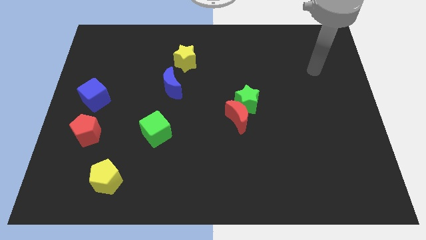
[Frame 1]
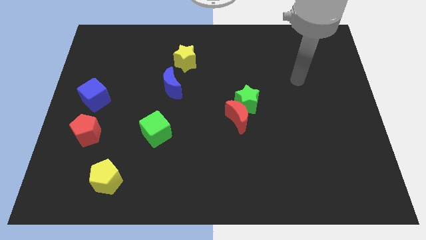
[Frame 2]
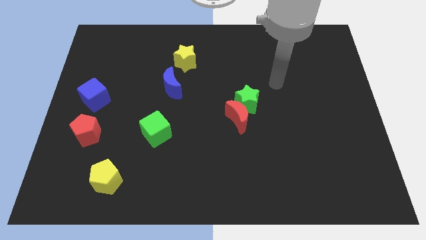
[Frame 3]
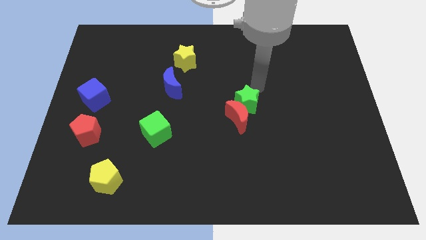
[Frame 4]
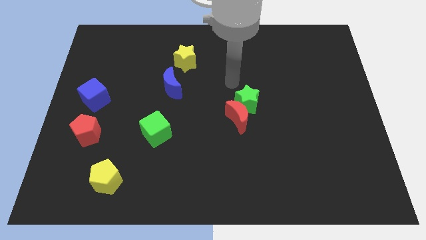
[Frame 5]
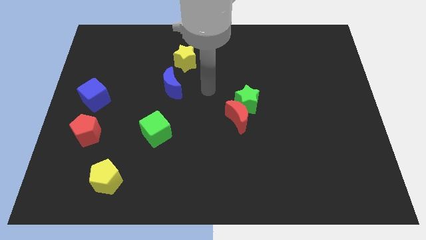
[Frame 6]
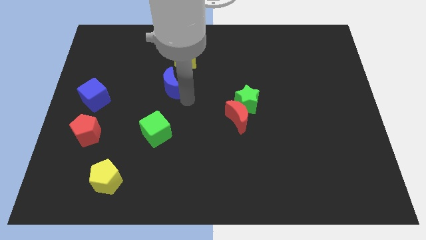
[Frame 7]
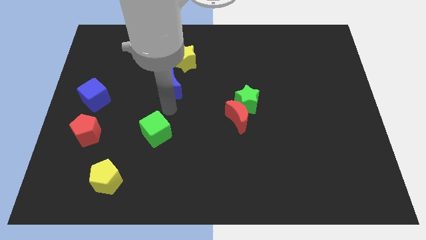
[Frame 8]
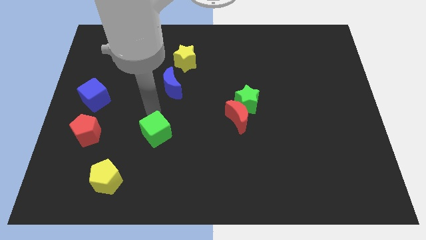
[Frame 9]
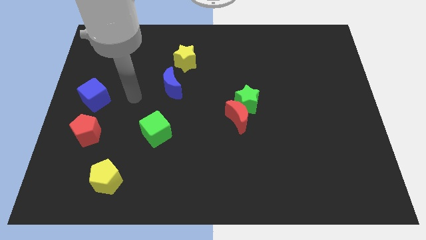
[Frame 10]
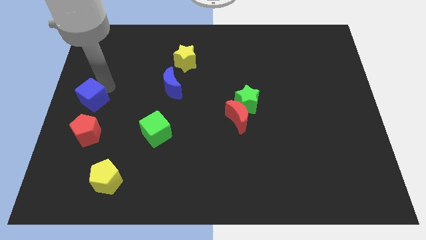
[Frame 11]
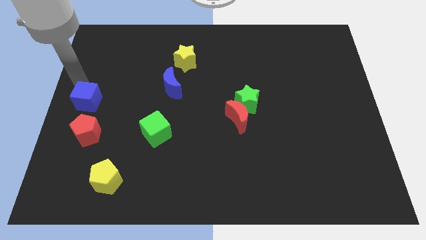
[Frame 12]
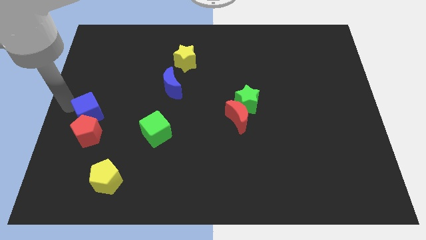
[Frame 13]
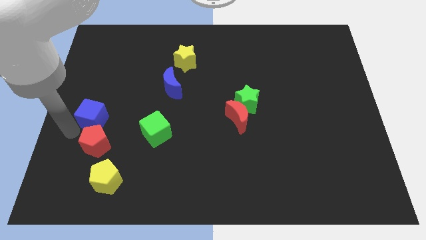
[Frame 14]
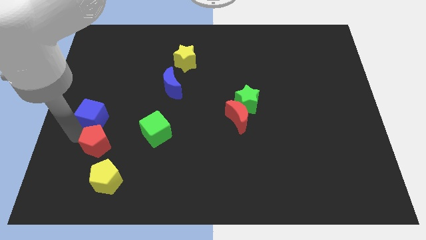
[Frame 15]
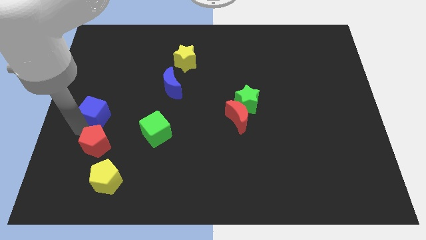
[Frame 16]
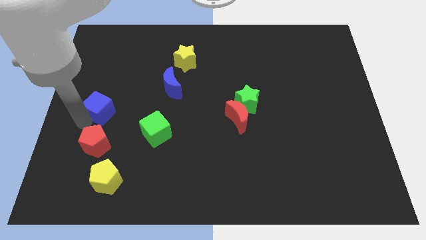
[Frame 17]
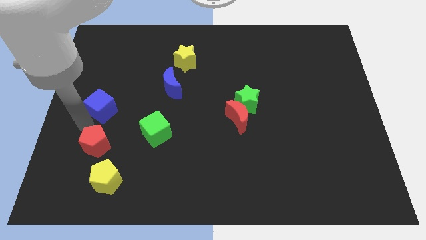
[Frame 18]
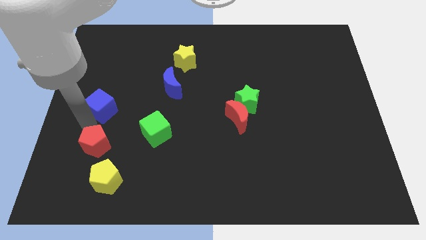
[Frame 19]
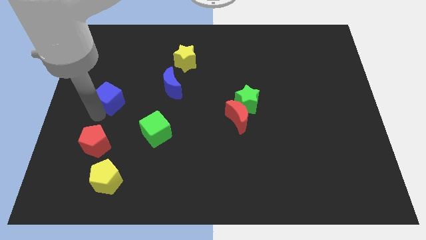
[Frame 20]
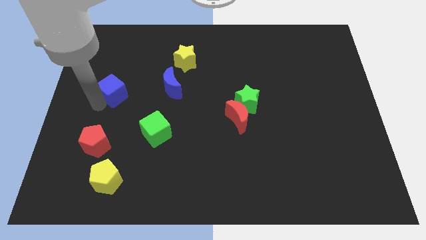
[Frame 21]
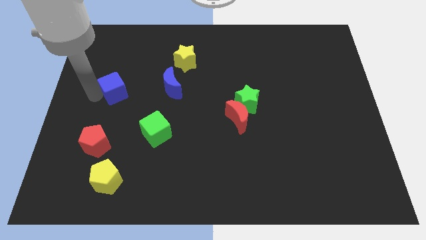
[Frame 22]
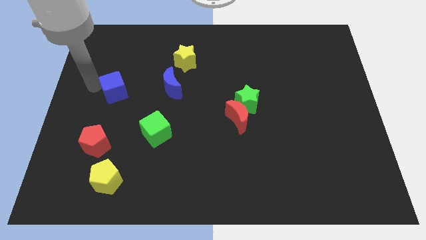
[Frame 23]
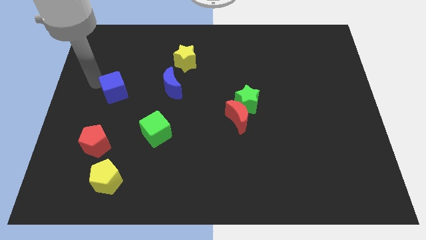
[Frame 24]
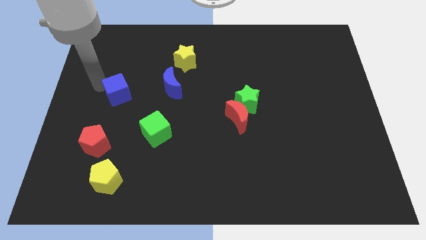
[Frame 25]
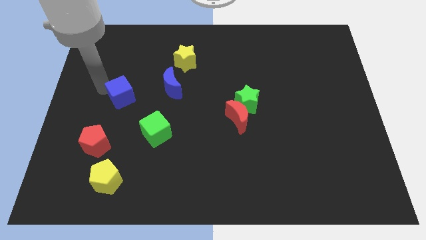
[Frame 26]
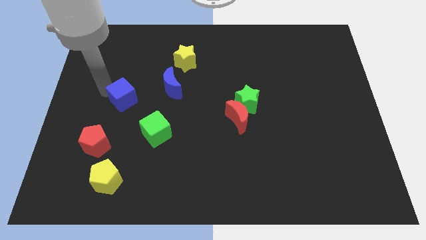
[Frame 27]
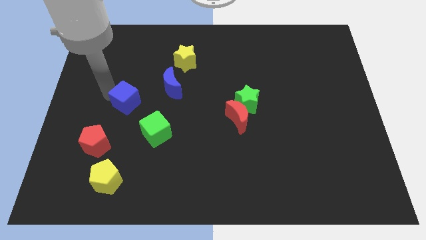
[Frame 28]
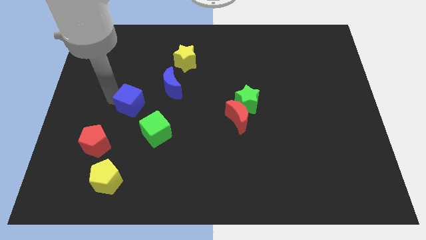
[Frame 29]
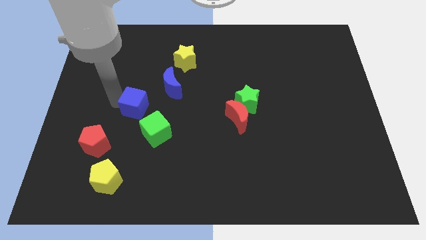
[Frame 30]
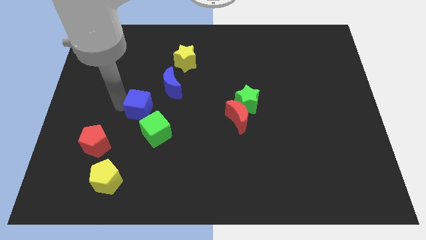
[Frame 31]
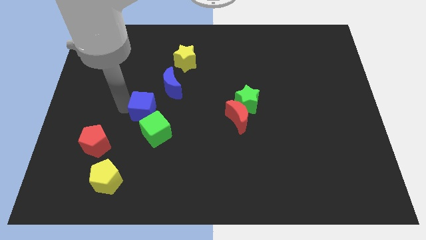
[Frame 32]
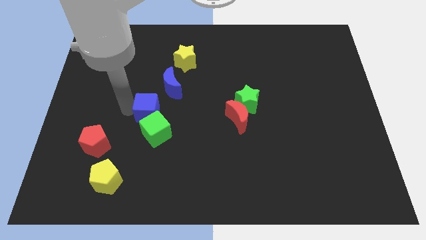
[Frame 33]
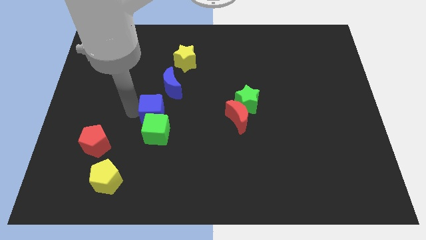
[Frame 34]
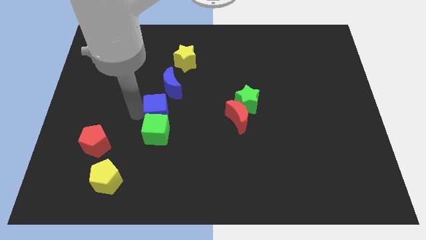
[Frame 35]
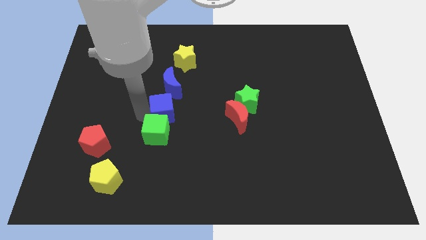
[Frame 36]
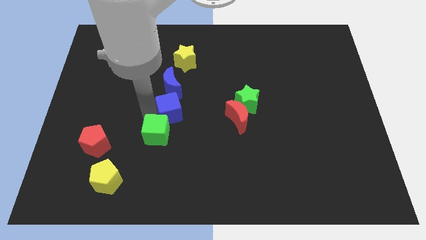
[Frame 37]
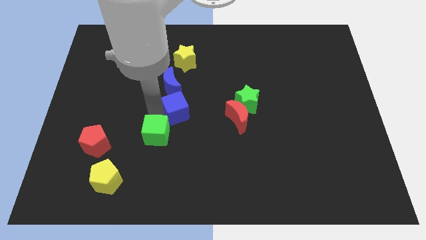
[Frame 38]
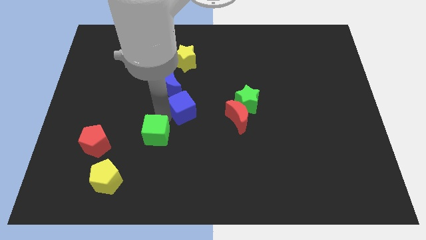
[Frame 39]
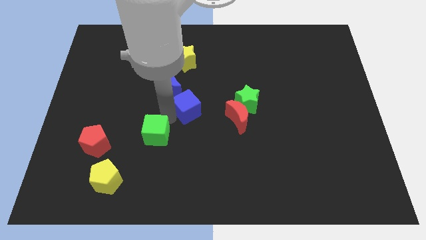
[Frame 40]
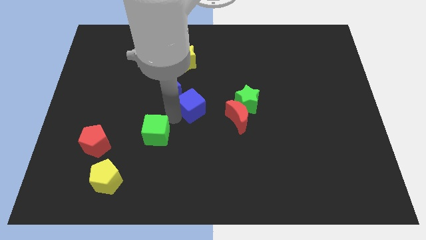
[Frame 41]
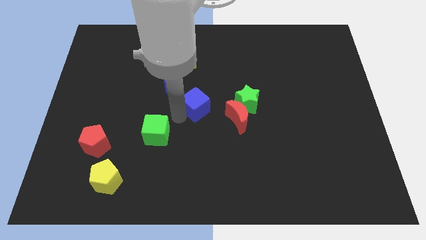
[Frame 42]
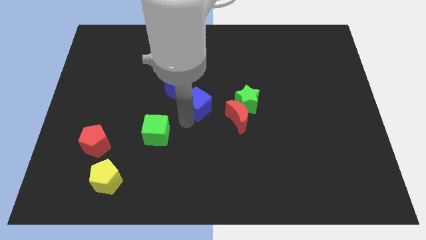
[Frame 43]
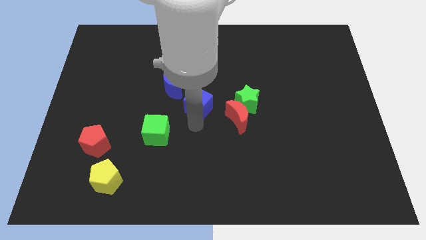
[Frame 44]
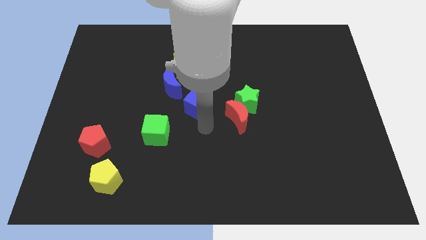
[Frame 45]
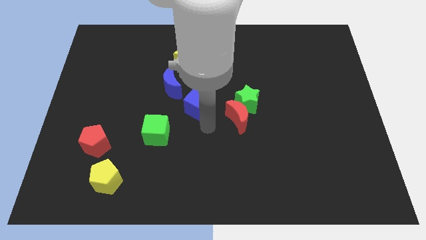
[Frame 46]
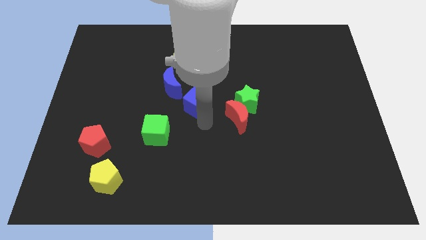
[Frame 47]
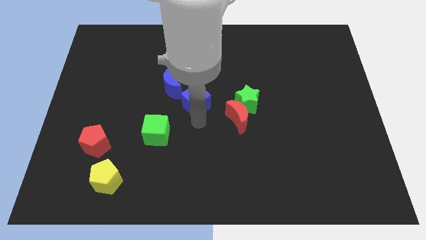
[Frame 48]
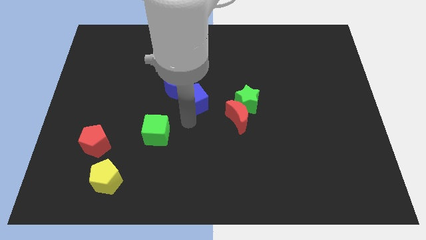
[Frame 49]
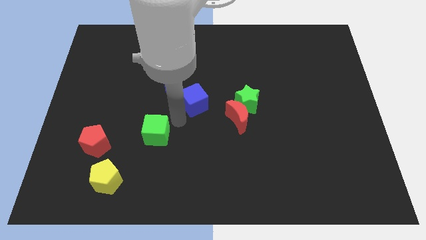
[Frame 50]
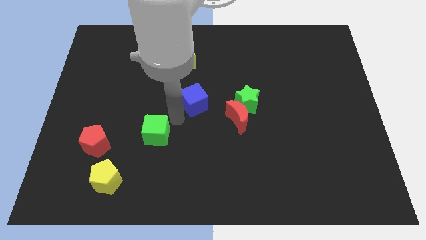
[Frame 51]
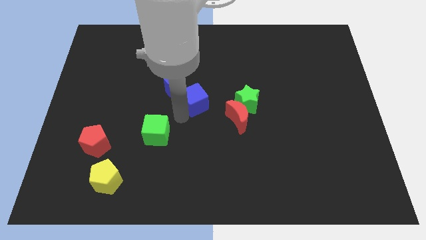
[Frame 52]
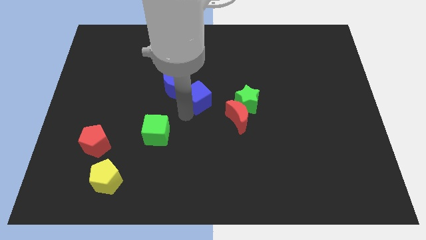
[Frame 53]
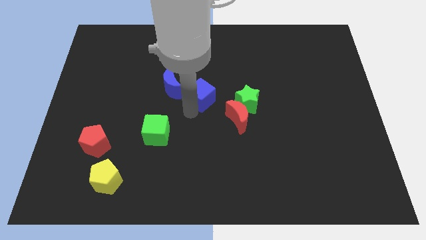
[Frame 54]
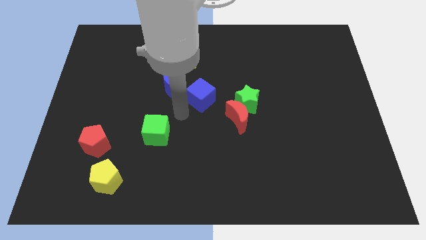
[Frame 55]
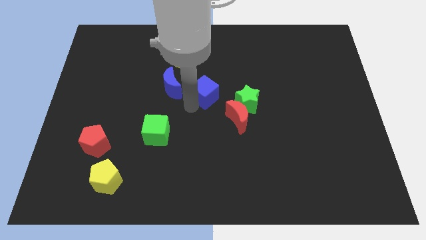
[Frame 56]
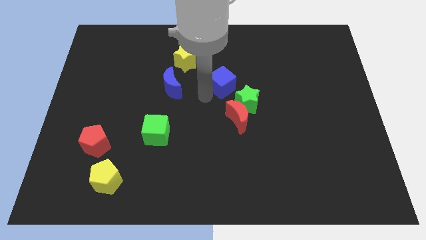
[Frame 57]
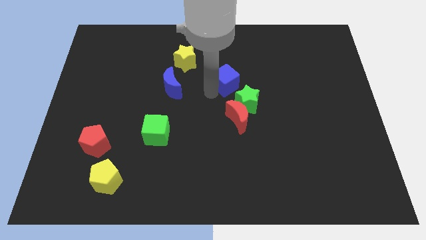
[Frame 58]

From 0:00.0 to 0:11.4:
move the blue cube to the top of the green star

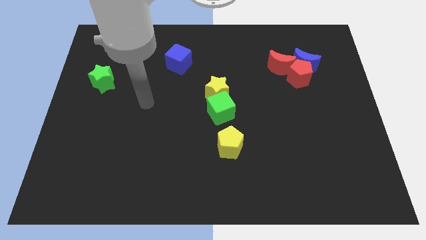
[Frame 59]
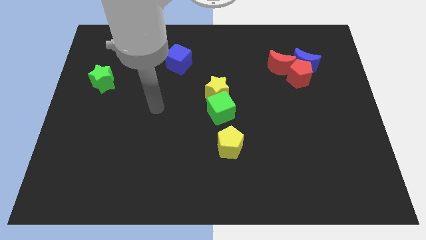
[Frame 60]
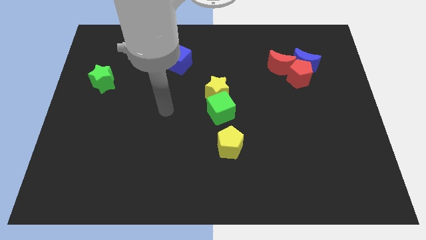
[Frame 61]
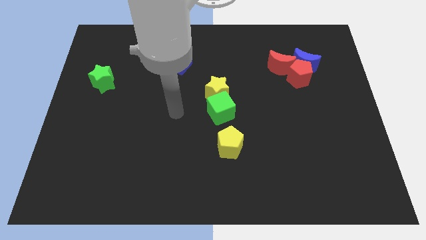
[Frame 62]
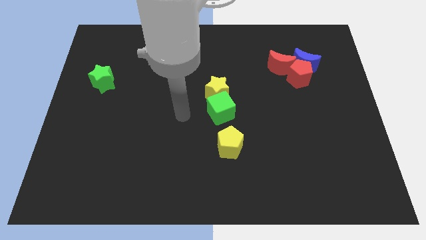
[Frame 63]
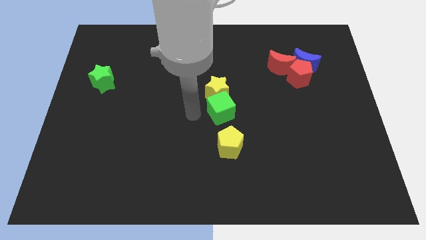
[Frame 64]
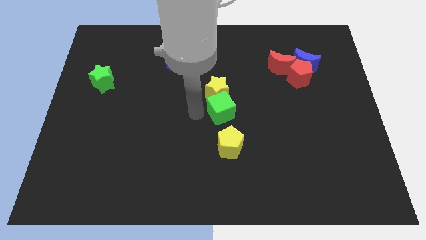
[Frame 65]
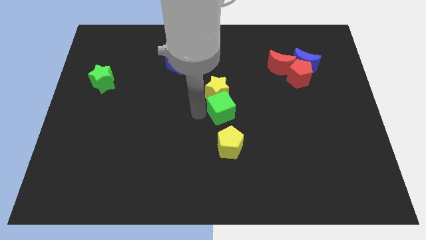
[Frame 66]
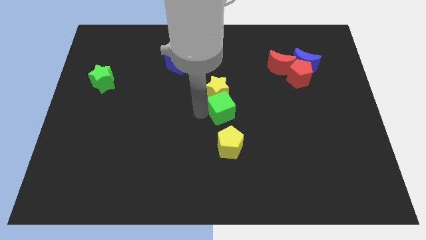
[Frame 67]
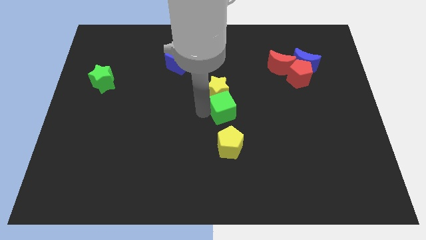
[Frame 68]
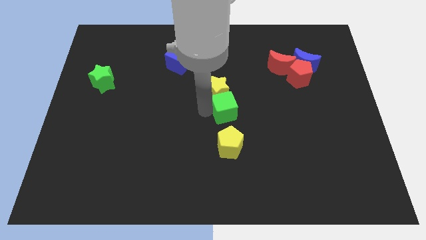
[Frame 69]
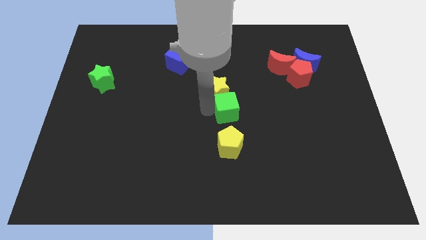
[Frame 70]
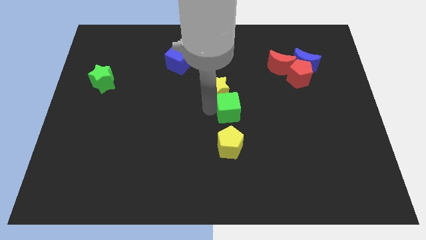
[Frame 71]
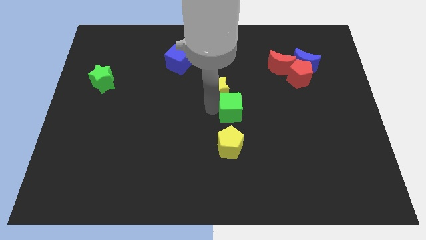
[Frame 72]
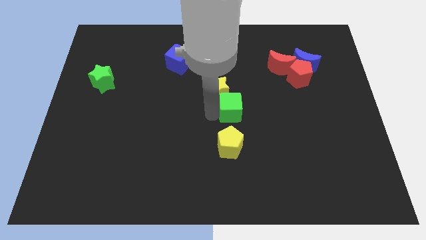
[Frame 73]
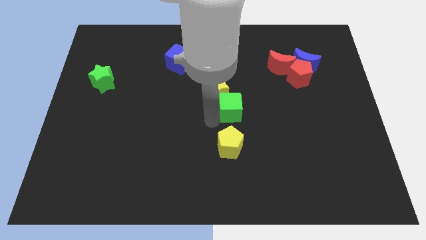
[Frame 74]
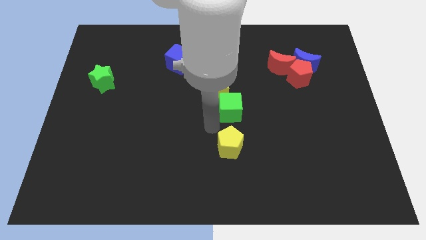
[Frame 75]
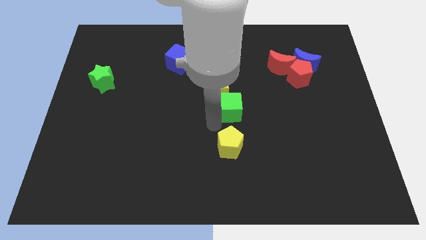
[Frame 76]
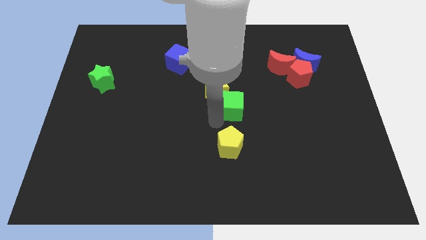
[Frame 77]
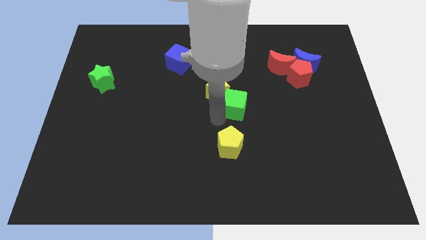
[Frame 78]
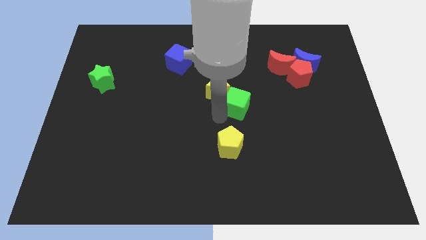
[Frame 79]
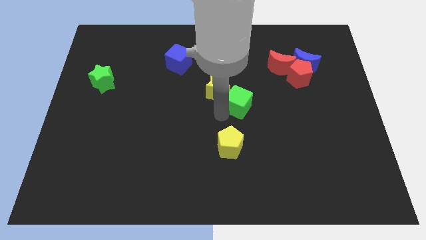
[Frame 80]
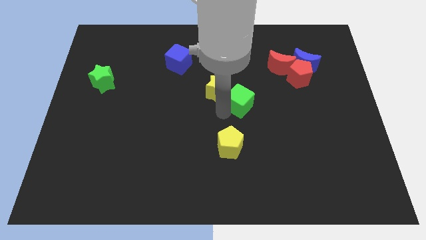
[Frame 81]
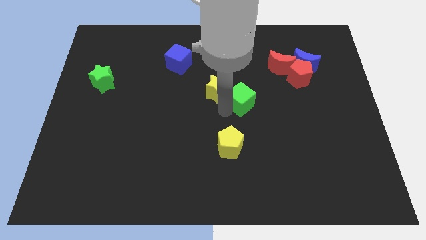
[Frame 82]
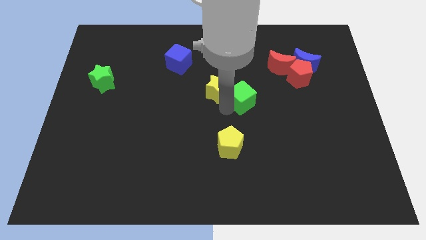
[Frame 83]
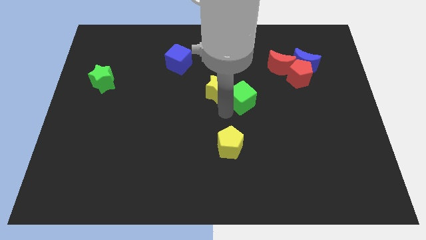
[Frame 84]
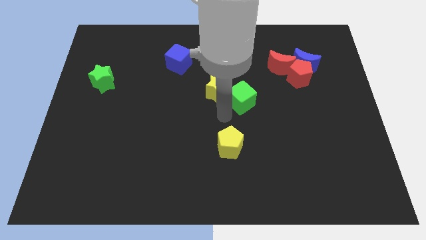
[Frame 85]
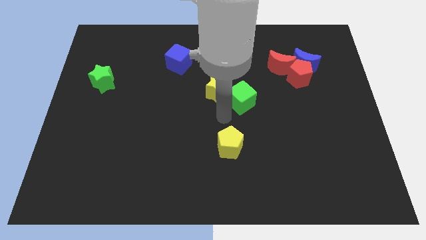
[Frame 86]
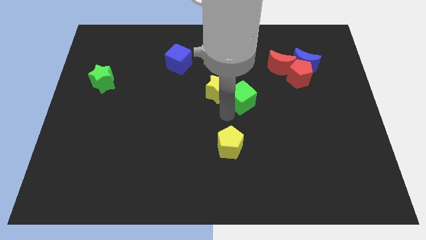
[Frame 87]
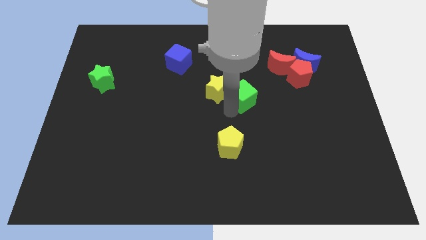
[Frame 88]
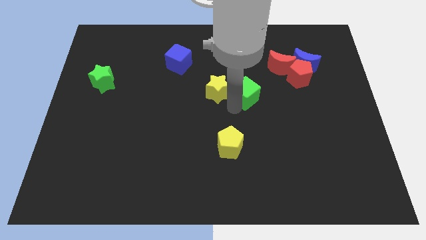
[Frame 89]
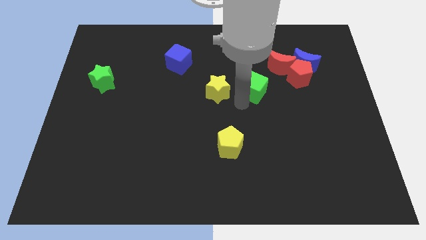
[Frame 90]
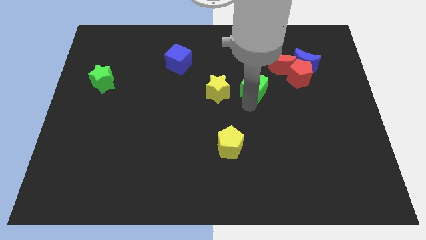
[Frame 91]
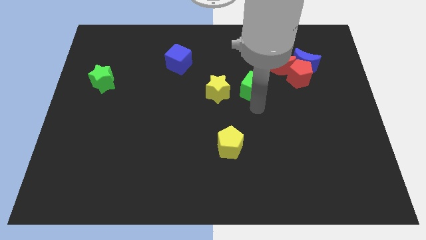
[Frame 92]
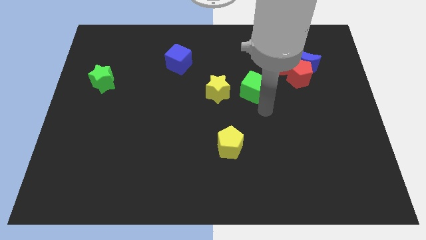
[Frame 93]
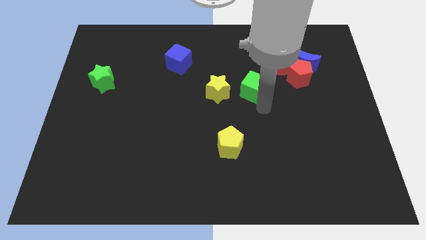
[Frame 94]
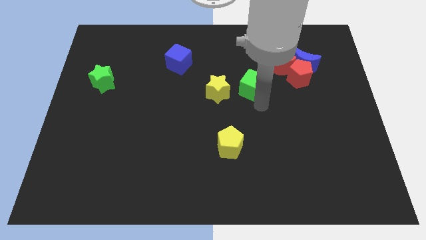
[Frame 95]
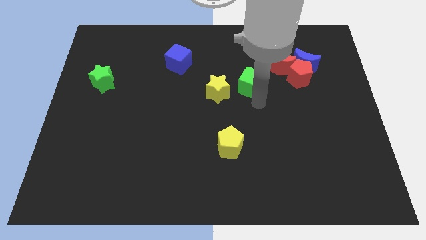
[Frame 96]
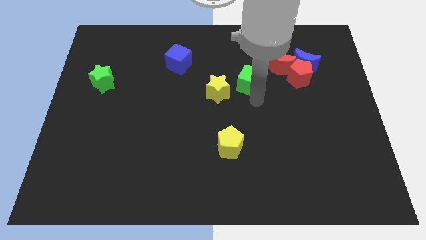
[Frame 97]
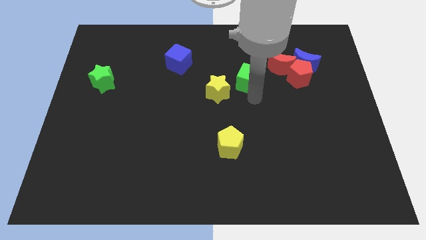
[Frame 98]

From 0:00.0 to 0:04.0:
slide the green cube just left of the red moon
